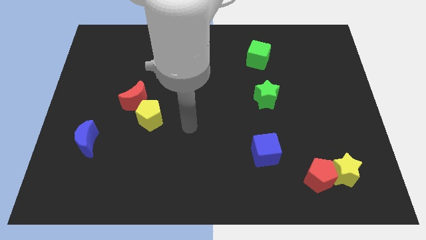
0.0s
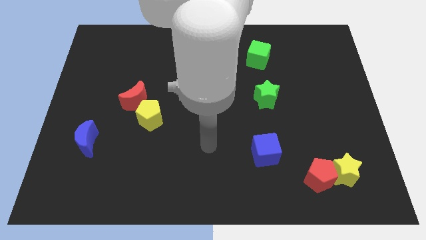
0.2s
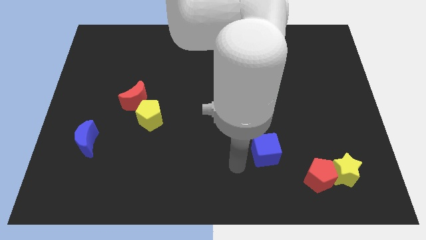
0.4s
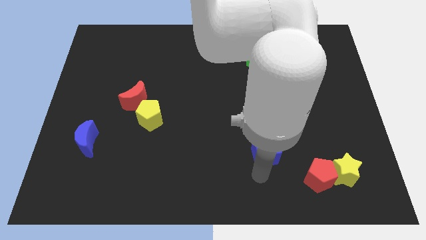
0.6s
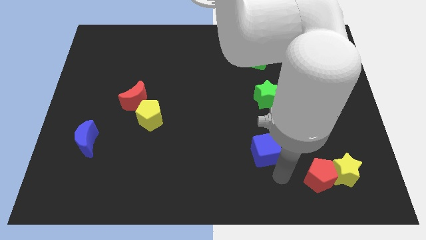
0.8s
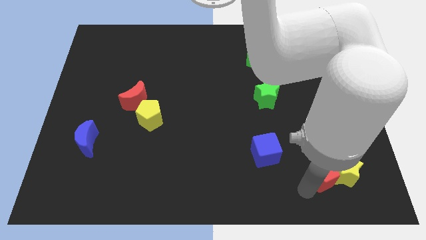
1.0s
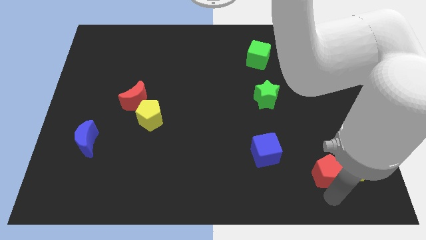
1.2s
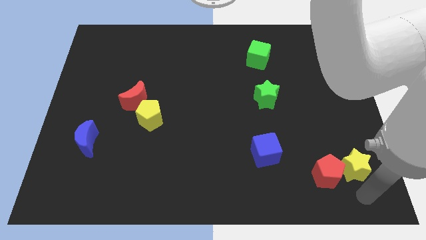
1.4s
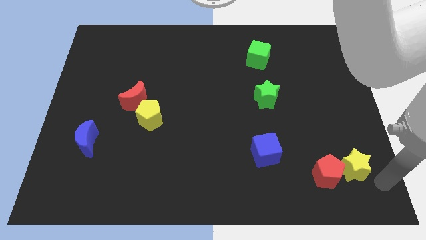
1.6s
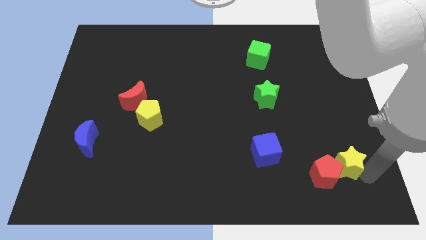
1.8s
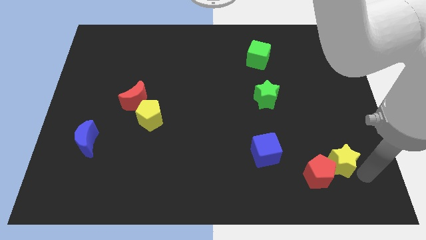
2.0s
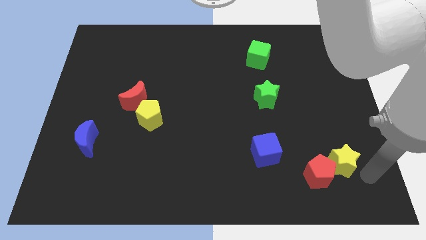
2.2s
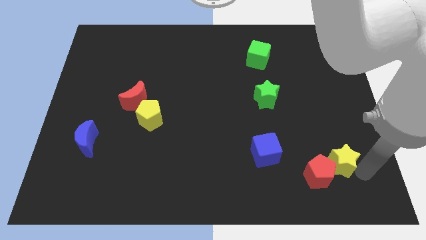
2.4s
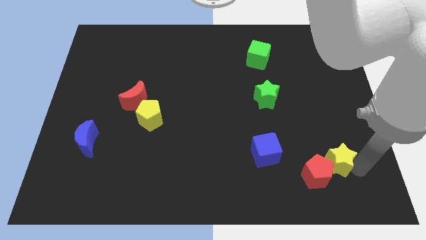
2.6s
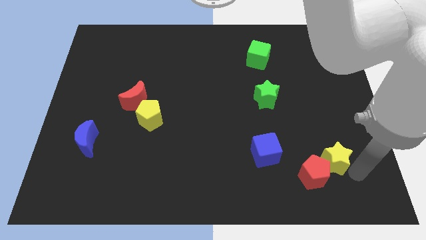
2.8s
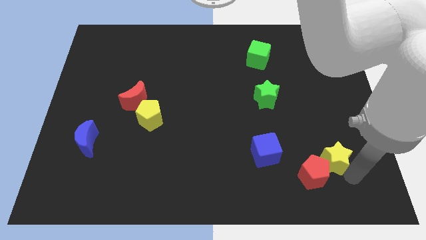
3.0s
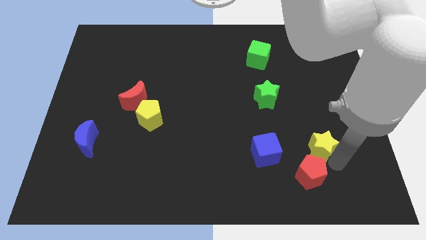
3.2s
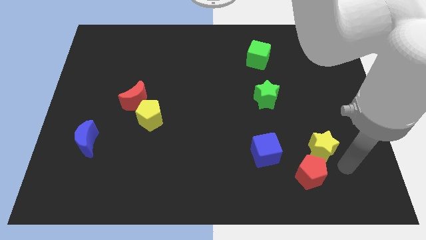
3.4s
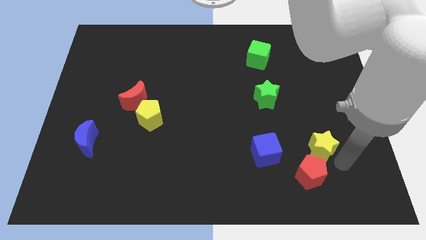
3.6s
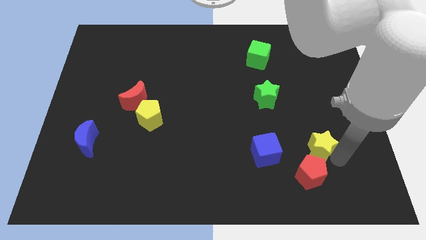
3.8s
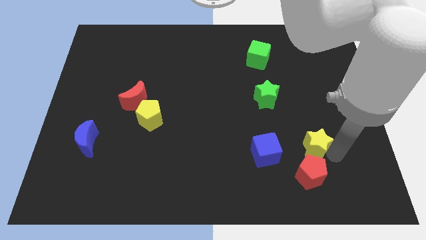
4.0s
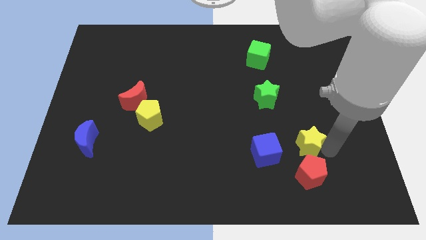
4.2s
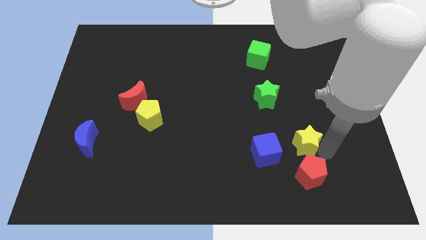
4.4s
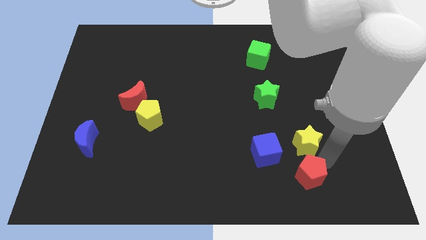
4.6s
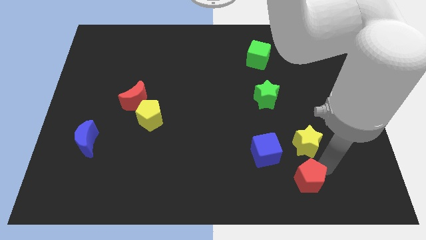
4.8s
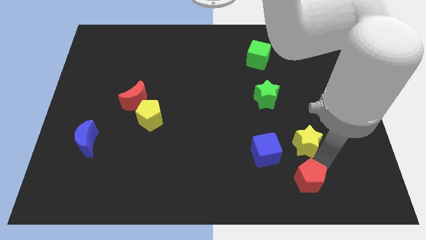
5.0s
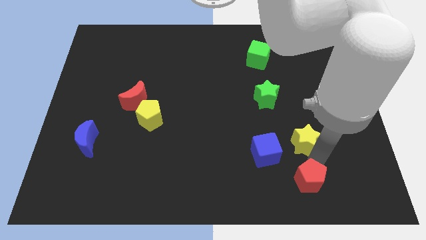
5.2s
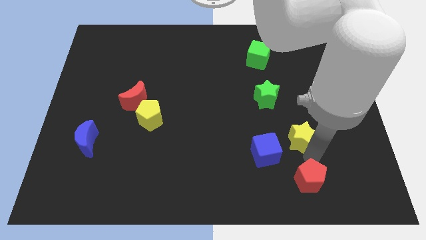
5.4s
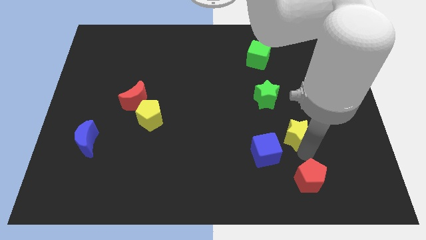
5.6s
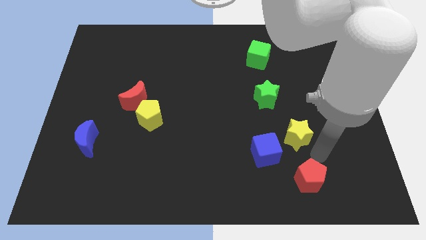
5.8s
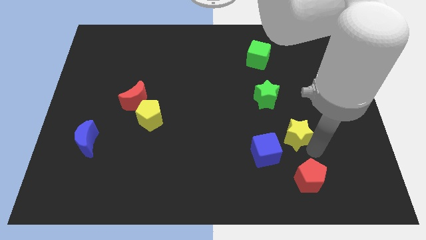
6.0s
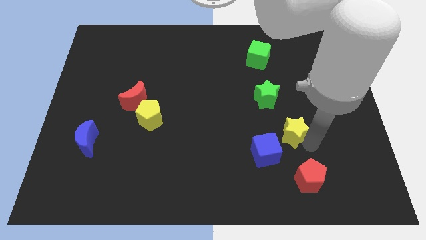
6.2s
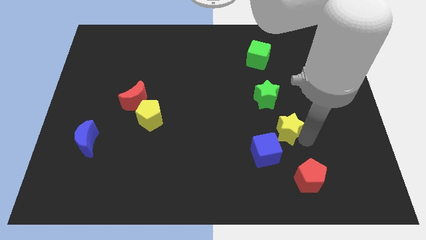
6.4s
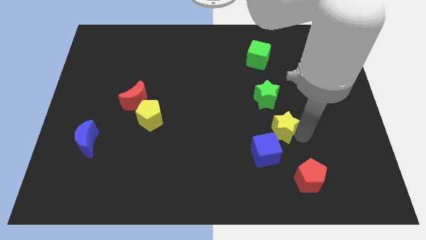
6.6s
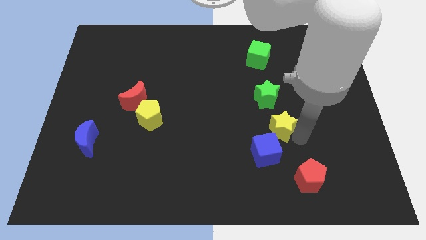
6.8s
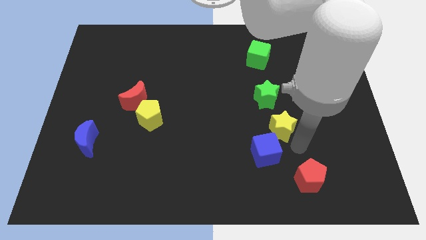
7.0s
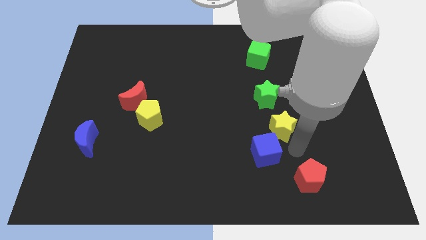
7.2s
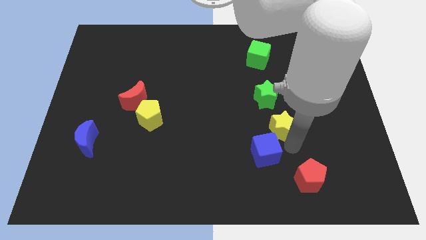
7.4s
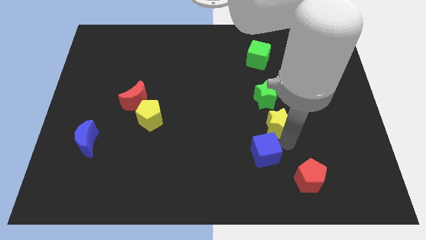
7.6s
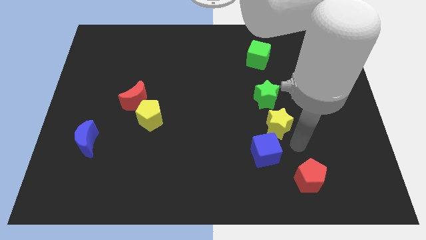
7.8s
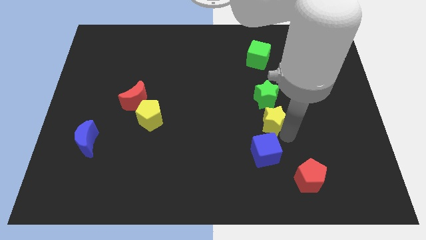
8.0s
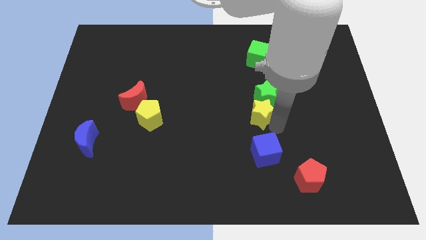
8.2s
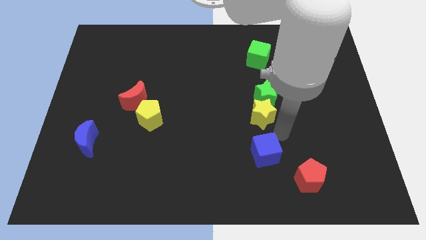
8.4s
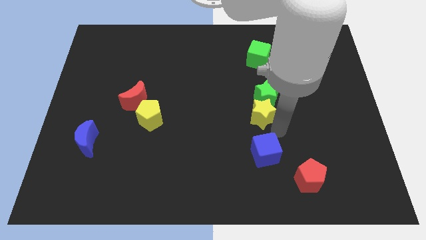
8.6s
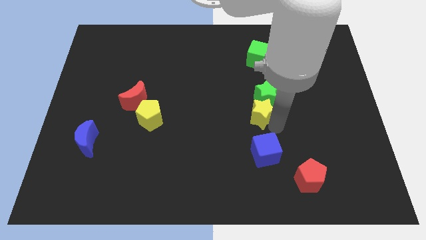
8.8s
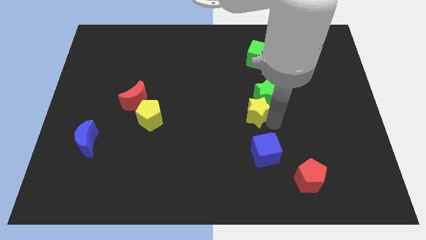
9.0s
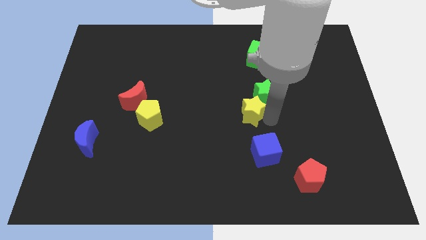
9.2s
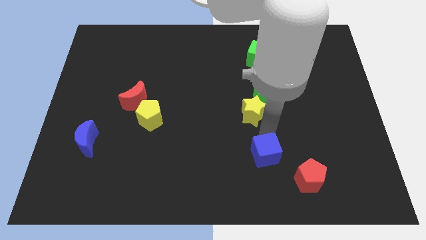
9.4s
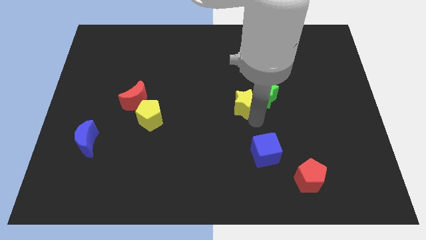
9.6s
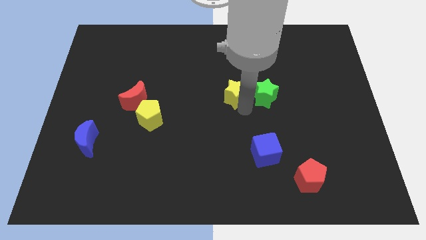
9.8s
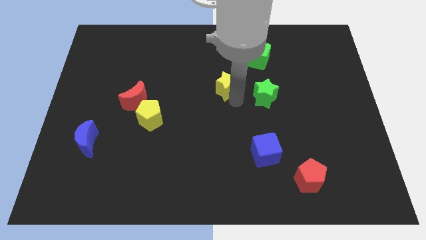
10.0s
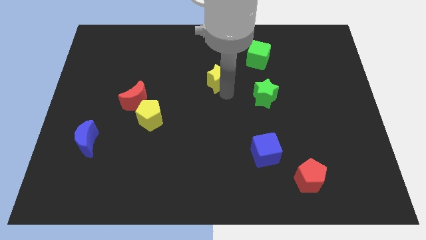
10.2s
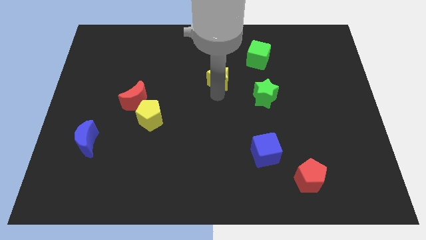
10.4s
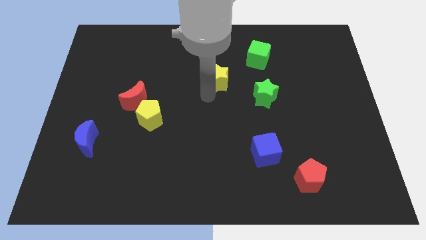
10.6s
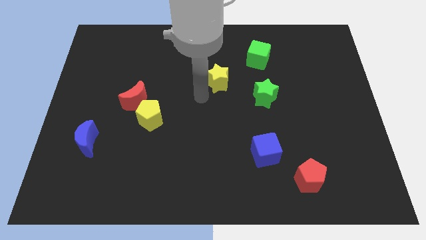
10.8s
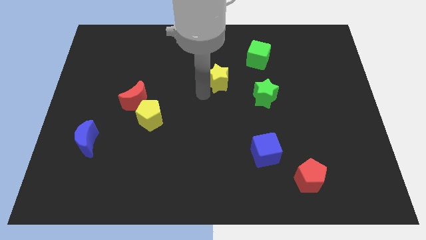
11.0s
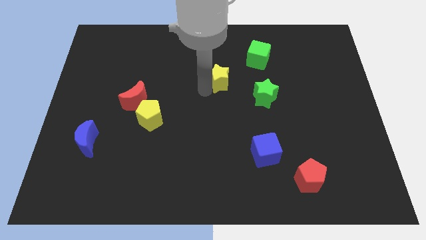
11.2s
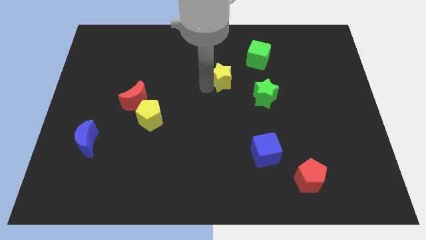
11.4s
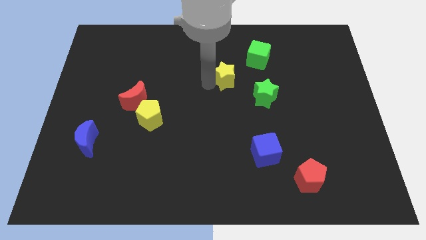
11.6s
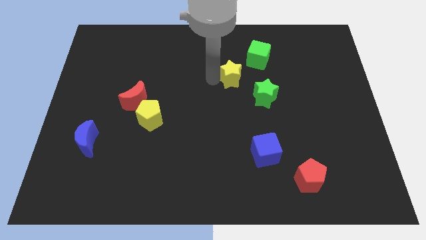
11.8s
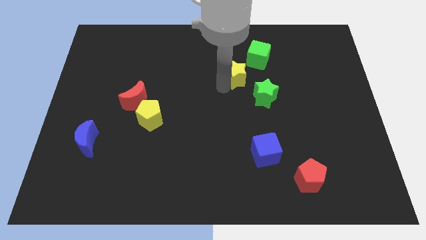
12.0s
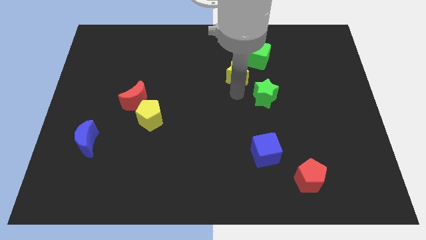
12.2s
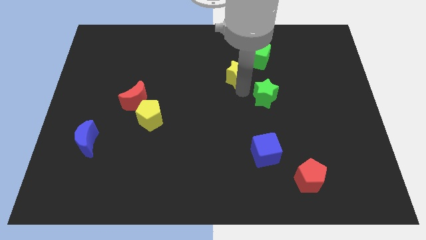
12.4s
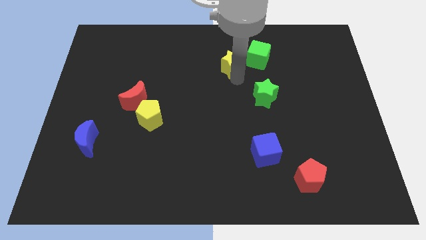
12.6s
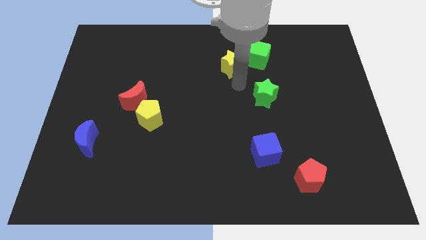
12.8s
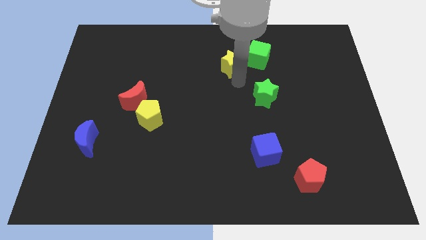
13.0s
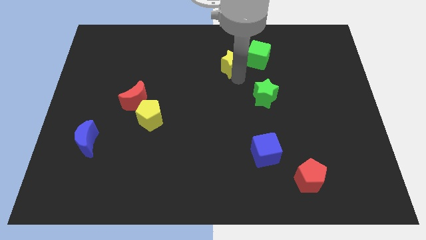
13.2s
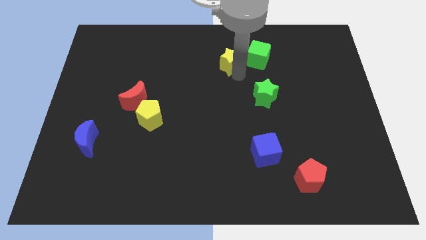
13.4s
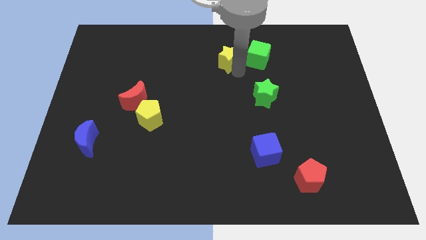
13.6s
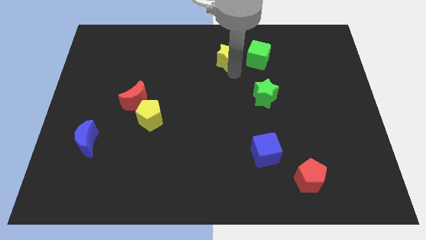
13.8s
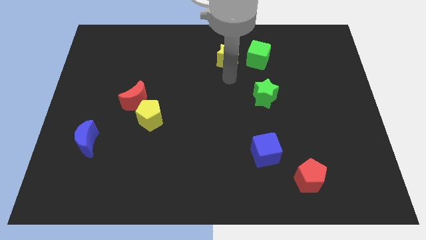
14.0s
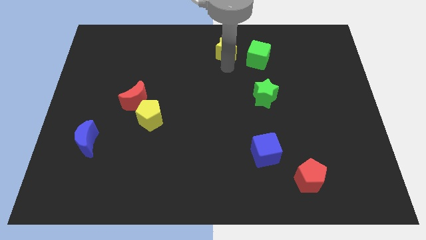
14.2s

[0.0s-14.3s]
put the yellow star to the top side

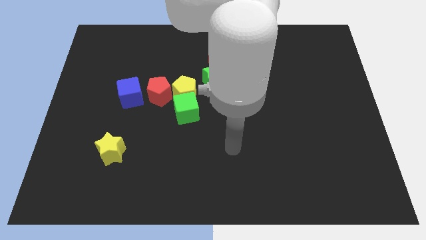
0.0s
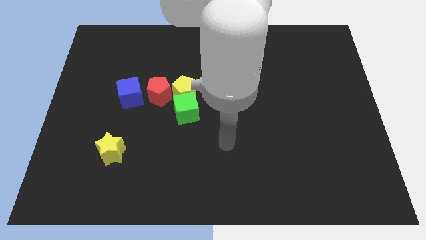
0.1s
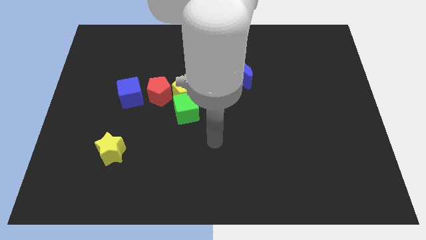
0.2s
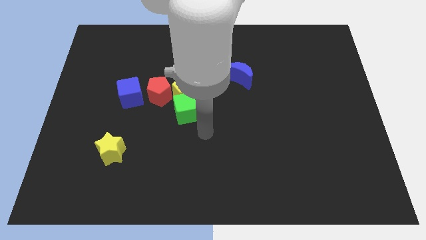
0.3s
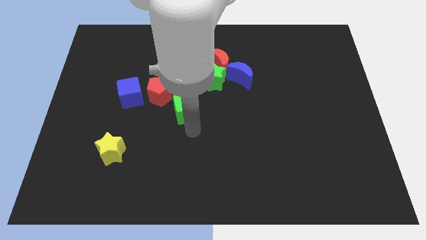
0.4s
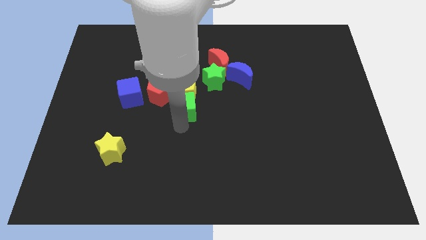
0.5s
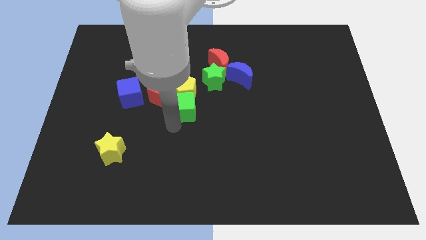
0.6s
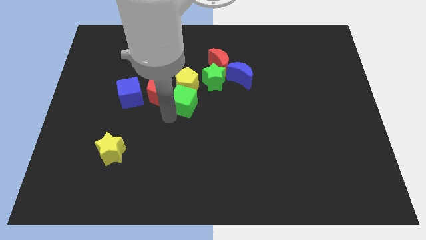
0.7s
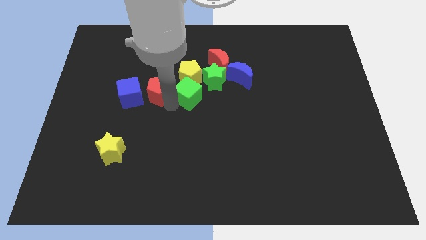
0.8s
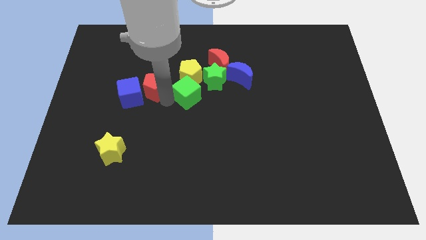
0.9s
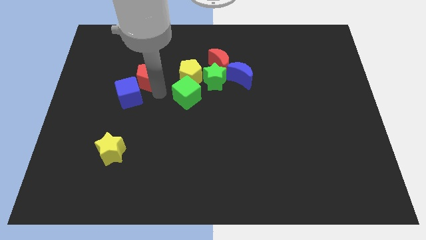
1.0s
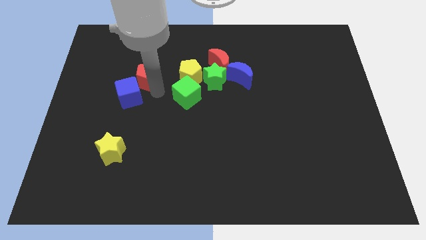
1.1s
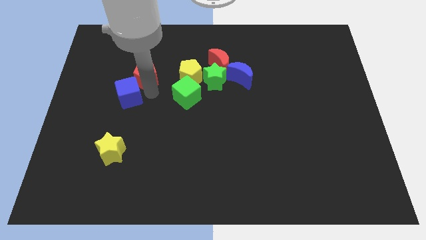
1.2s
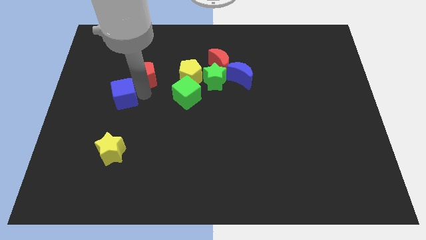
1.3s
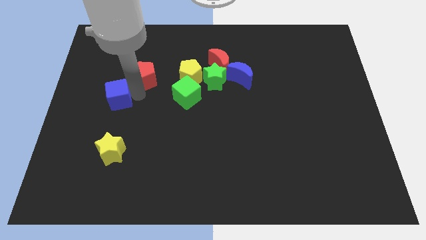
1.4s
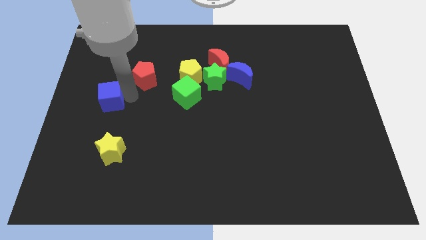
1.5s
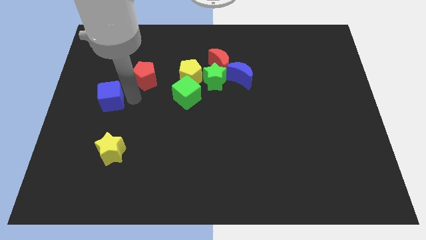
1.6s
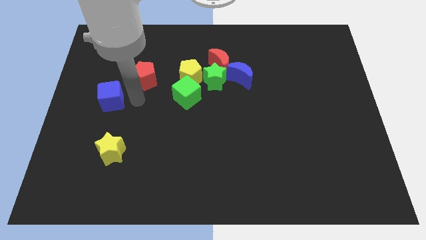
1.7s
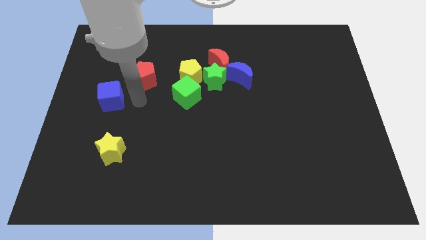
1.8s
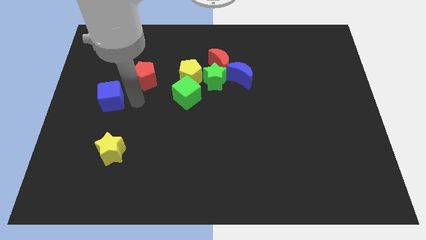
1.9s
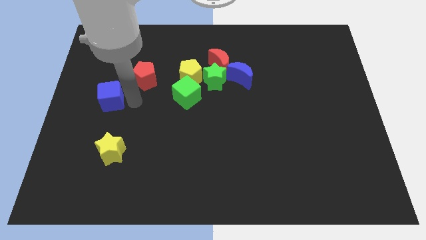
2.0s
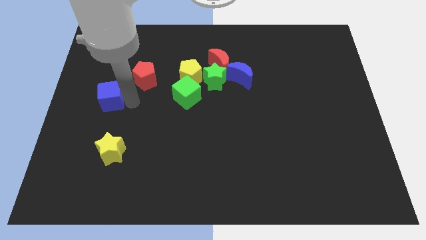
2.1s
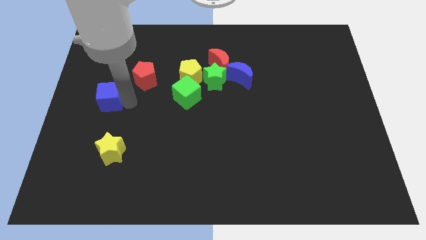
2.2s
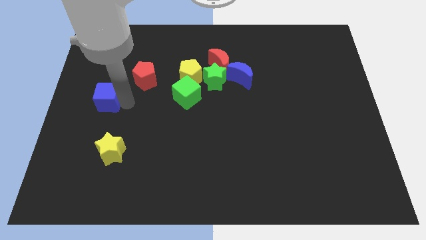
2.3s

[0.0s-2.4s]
put the blue cube to the left side of the board
